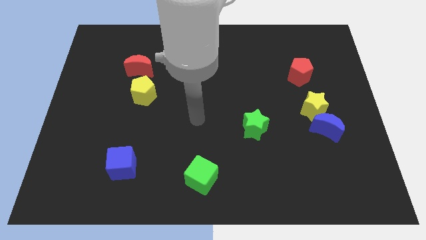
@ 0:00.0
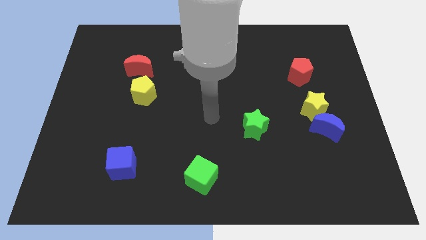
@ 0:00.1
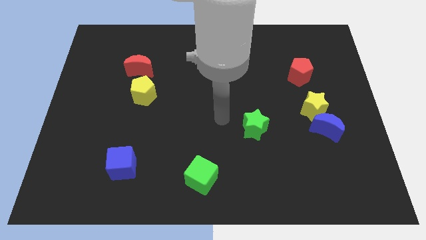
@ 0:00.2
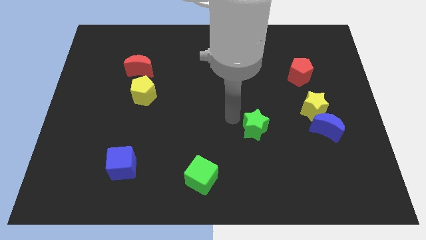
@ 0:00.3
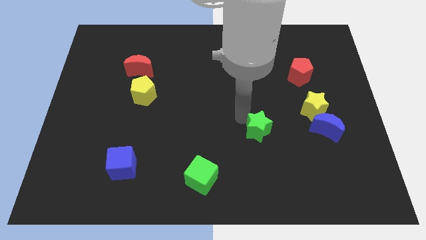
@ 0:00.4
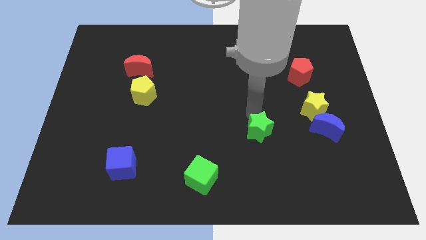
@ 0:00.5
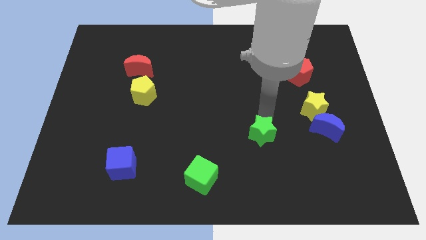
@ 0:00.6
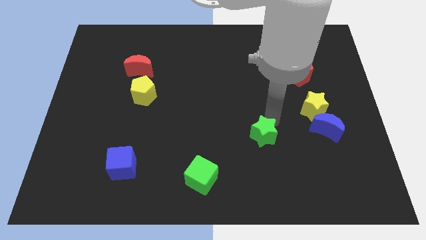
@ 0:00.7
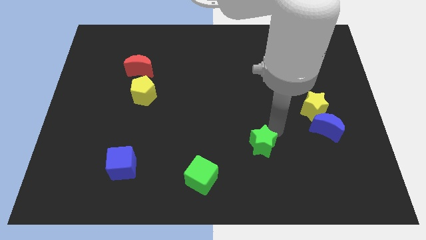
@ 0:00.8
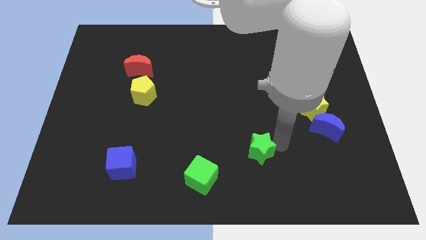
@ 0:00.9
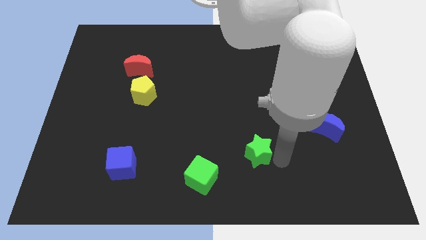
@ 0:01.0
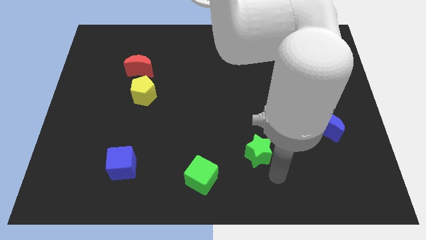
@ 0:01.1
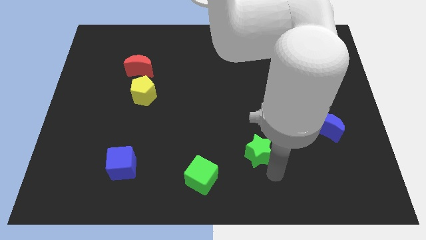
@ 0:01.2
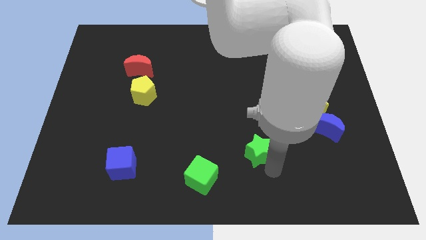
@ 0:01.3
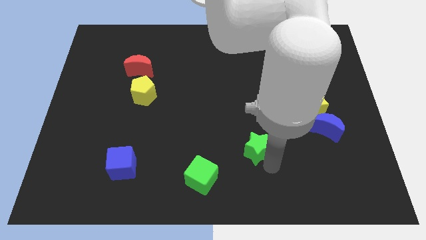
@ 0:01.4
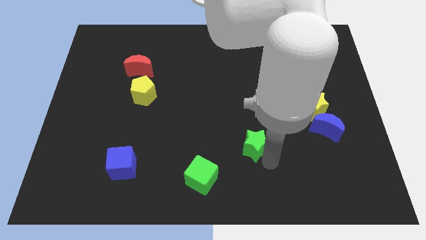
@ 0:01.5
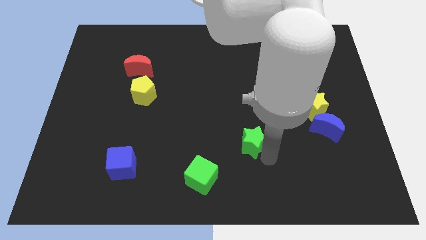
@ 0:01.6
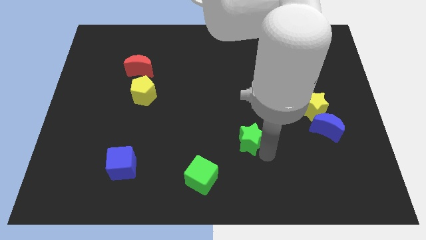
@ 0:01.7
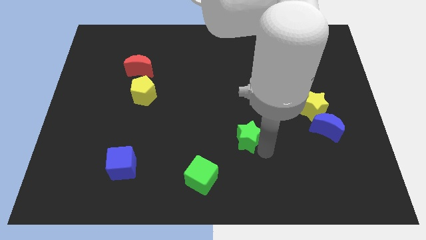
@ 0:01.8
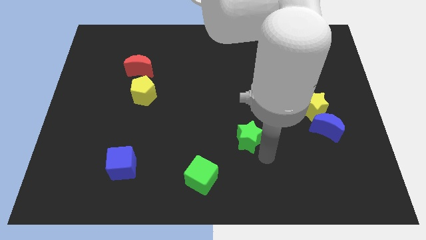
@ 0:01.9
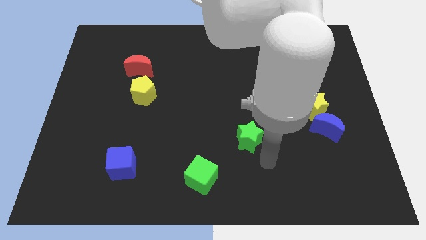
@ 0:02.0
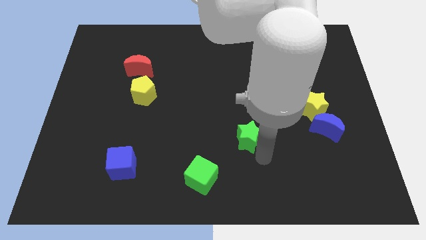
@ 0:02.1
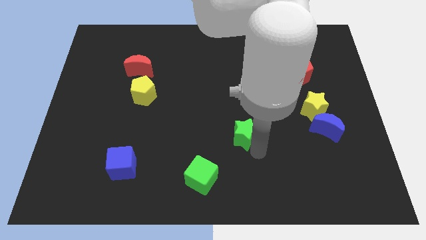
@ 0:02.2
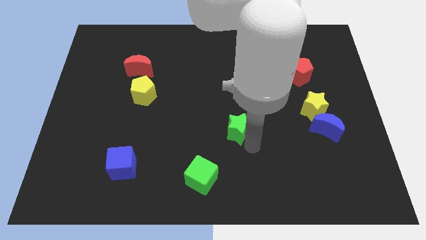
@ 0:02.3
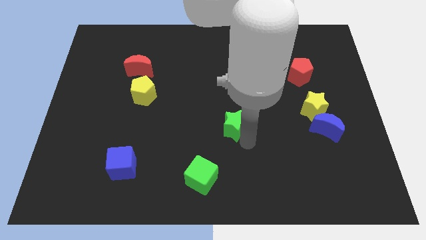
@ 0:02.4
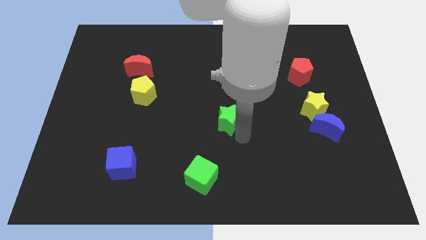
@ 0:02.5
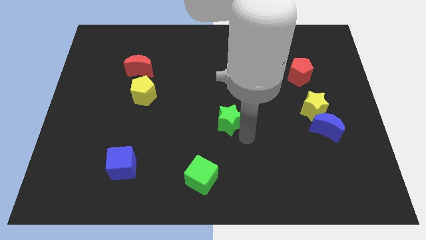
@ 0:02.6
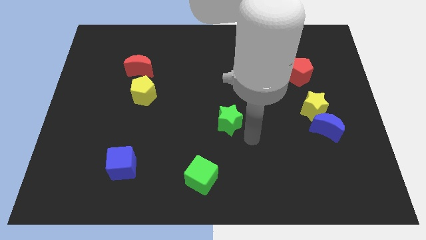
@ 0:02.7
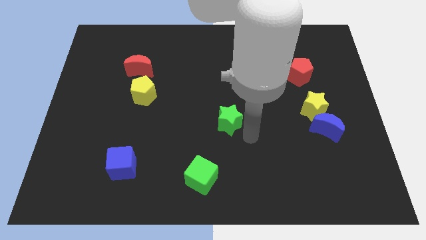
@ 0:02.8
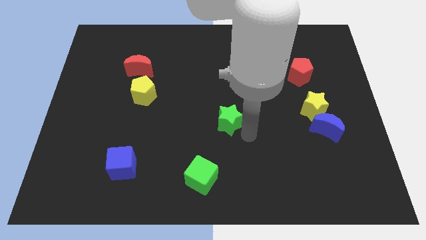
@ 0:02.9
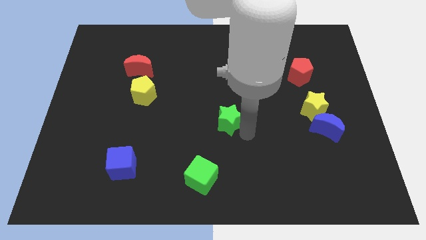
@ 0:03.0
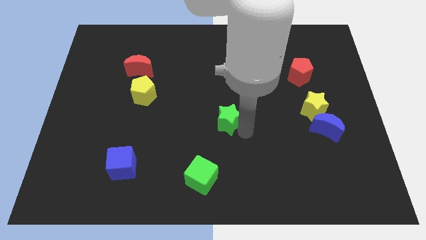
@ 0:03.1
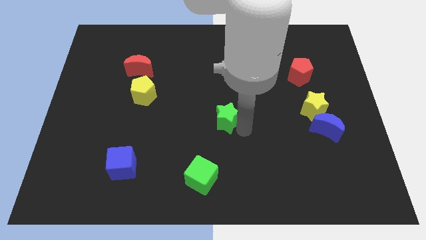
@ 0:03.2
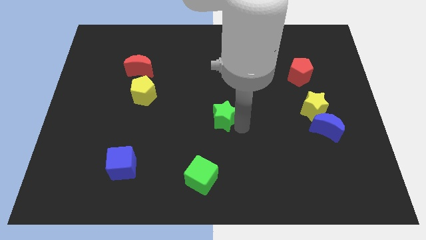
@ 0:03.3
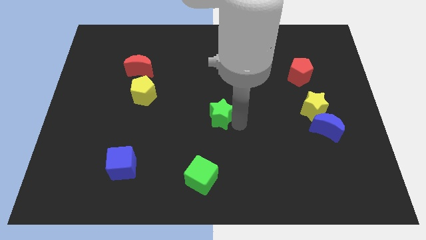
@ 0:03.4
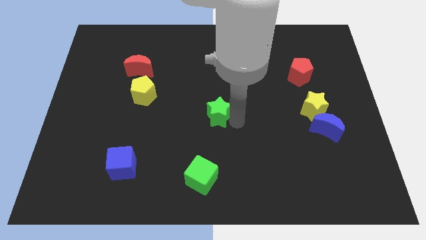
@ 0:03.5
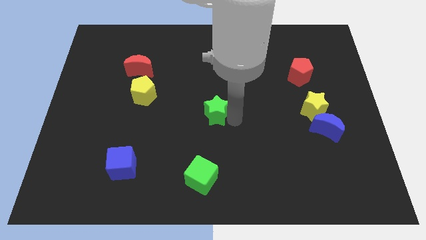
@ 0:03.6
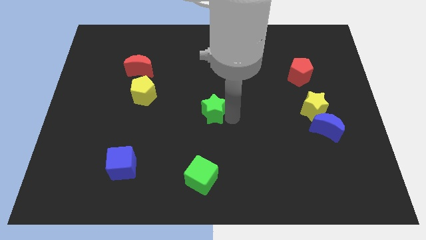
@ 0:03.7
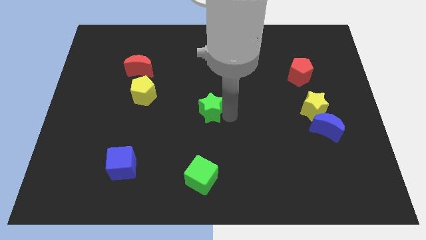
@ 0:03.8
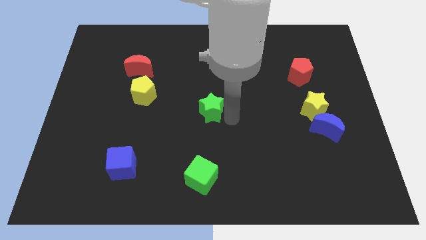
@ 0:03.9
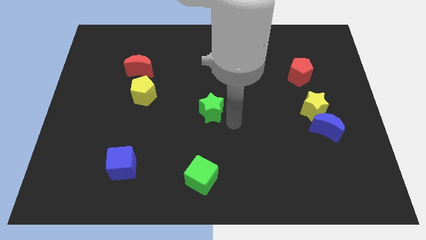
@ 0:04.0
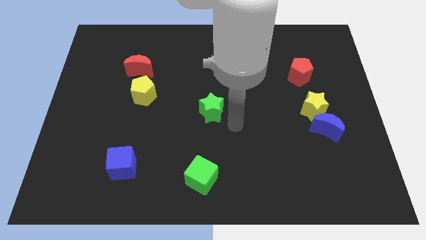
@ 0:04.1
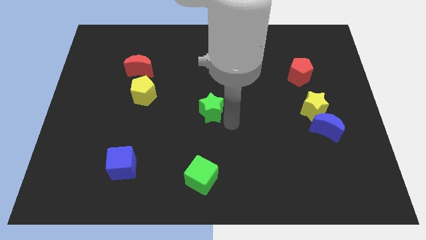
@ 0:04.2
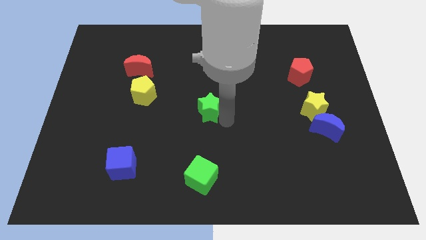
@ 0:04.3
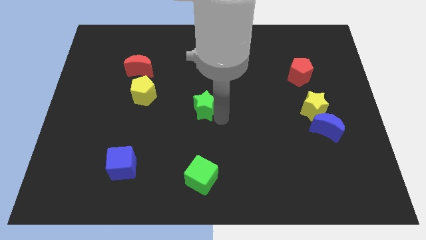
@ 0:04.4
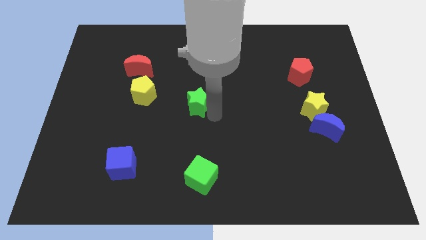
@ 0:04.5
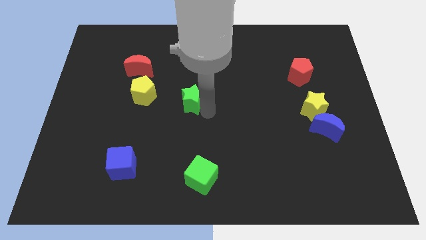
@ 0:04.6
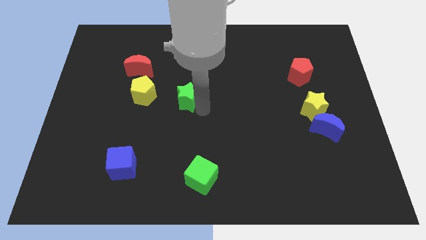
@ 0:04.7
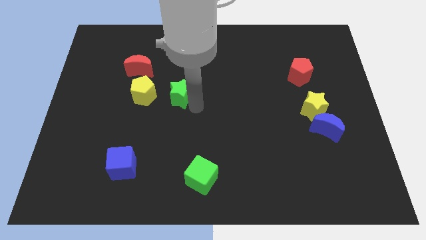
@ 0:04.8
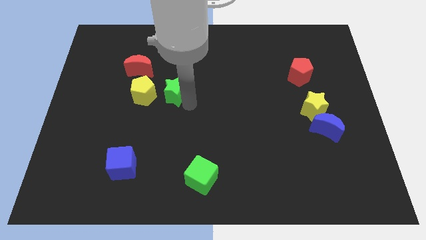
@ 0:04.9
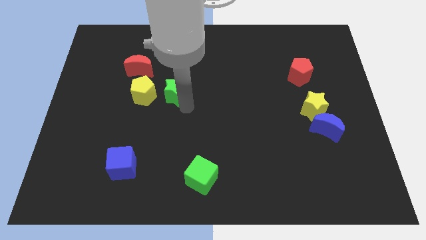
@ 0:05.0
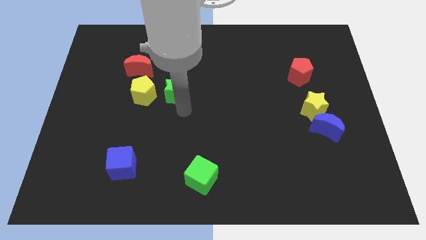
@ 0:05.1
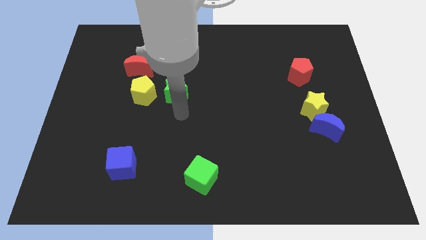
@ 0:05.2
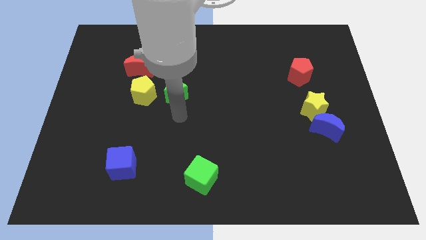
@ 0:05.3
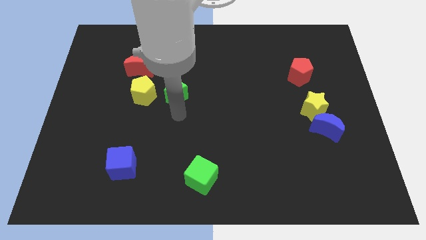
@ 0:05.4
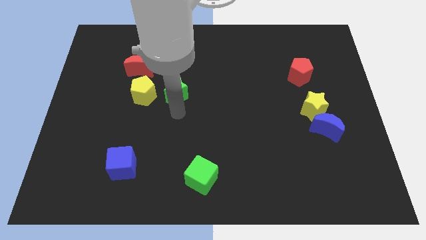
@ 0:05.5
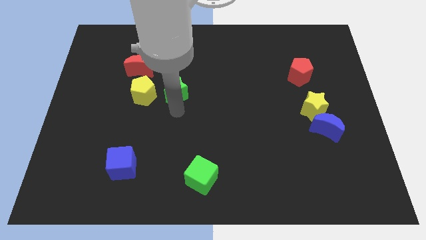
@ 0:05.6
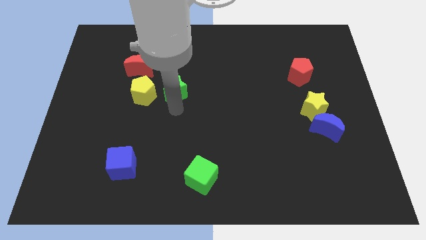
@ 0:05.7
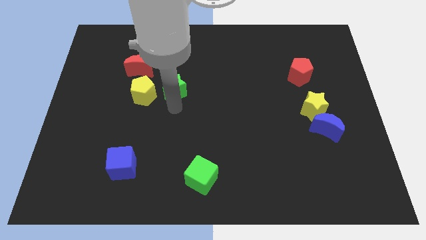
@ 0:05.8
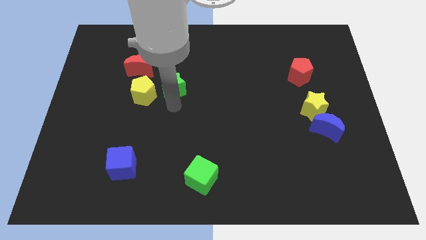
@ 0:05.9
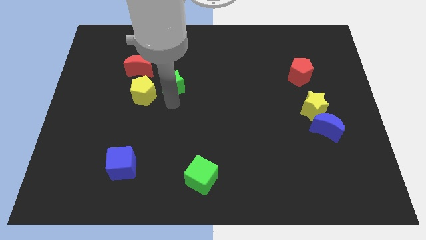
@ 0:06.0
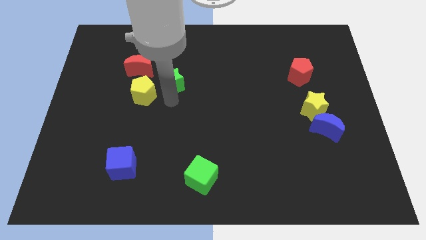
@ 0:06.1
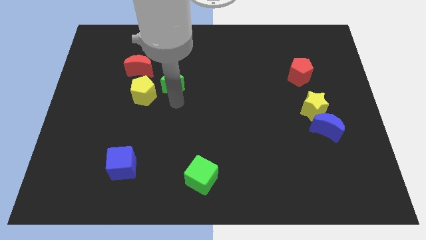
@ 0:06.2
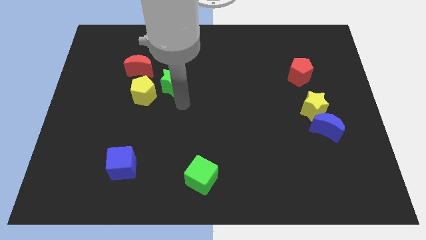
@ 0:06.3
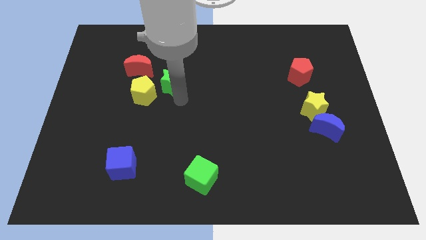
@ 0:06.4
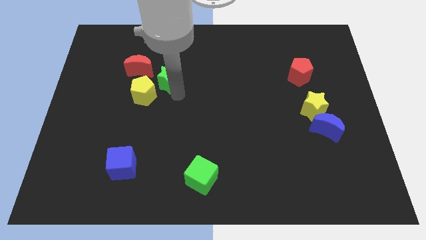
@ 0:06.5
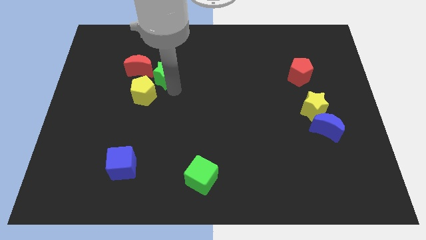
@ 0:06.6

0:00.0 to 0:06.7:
move the green star to the top side of the yellow pentagon

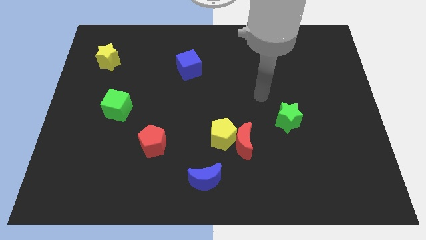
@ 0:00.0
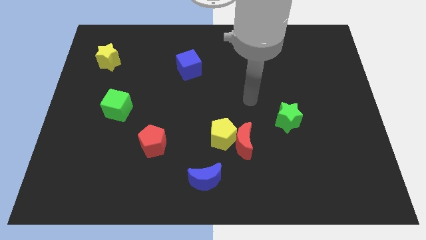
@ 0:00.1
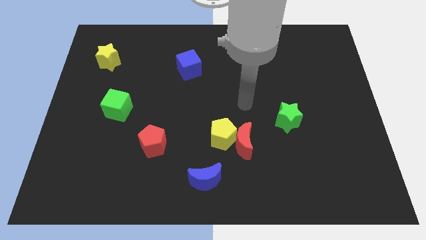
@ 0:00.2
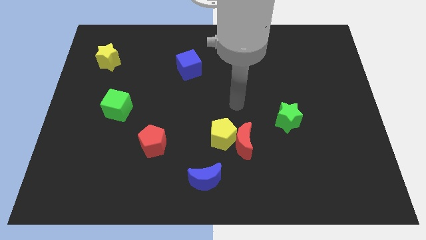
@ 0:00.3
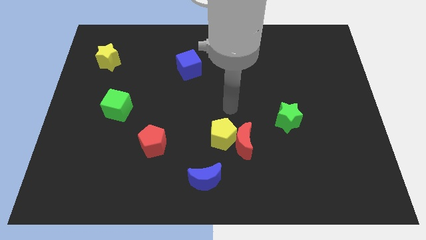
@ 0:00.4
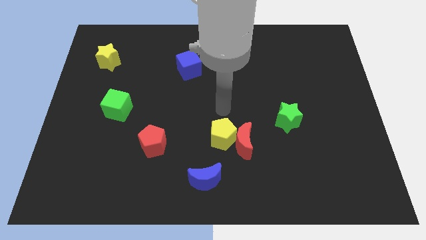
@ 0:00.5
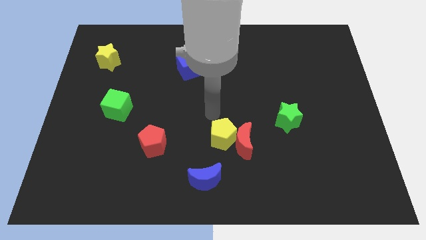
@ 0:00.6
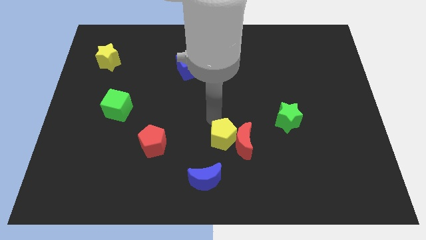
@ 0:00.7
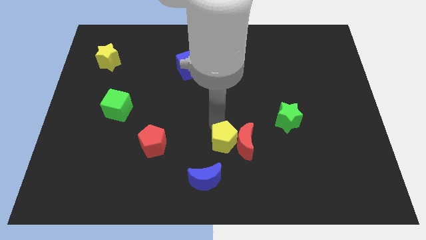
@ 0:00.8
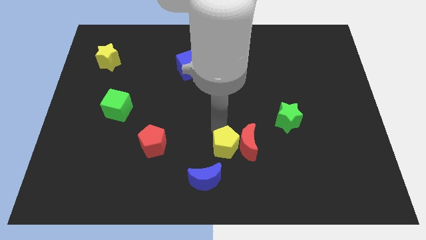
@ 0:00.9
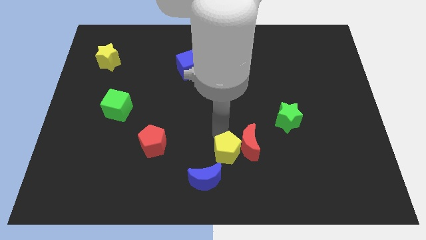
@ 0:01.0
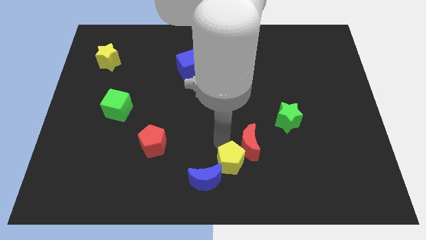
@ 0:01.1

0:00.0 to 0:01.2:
slide the yellow pentagon to the right of the blue moon
